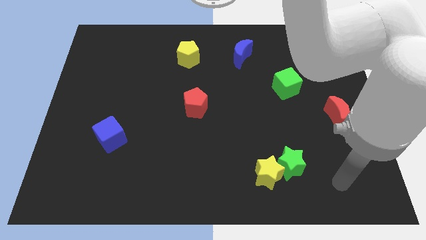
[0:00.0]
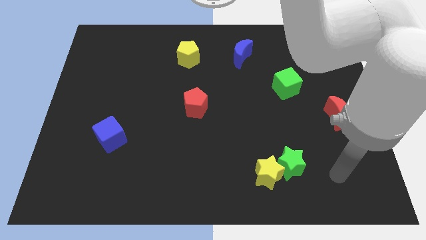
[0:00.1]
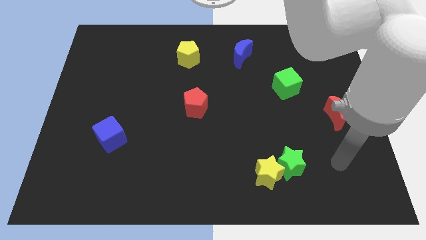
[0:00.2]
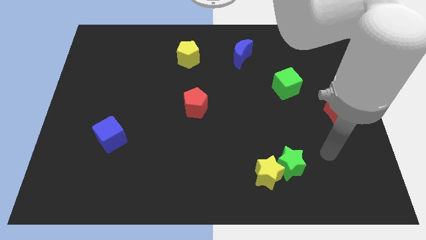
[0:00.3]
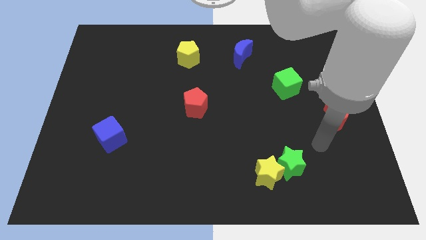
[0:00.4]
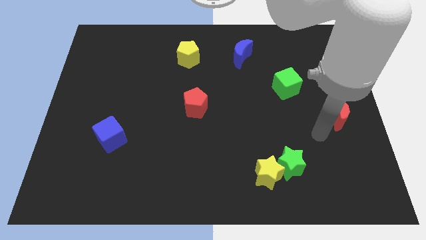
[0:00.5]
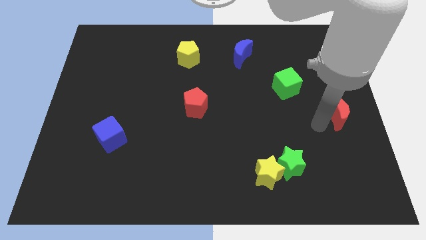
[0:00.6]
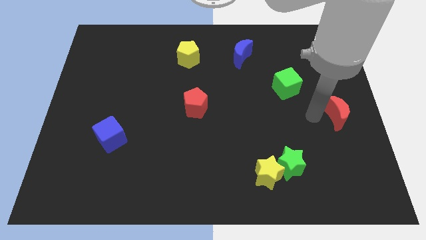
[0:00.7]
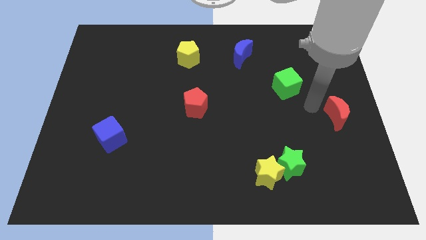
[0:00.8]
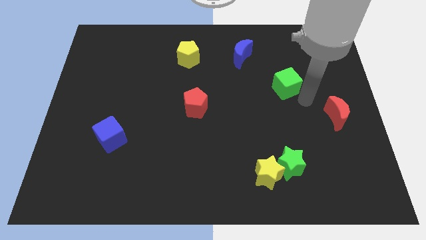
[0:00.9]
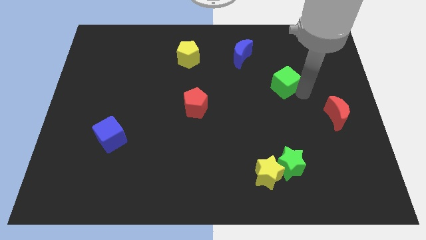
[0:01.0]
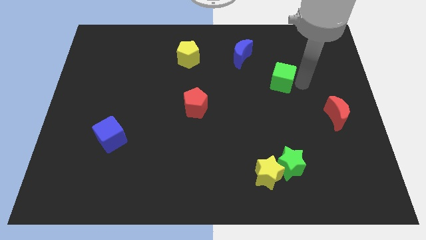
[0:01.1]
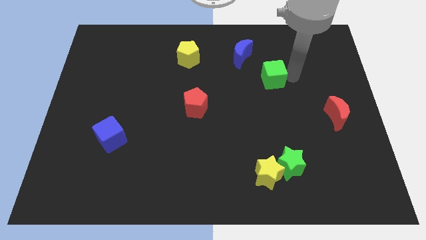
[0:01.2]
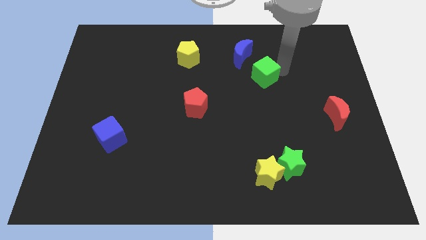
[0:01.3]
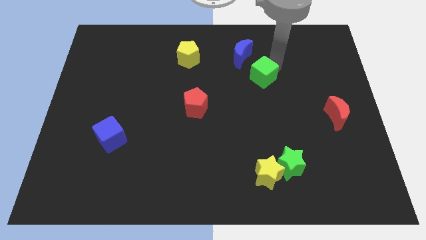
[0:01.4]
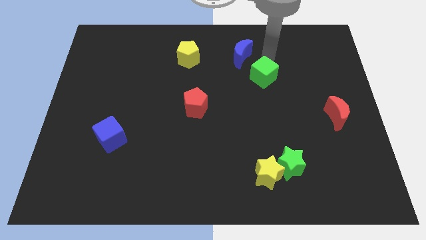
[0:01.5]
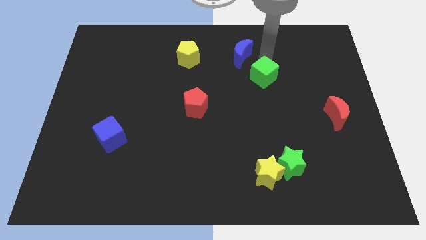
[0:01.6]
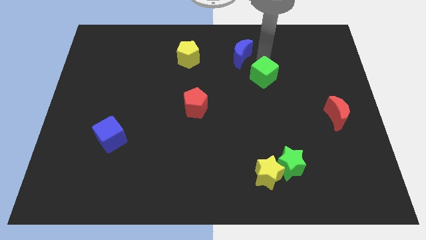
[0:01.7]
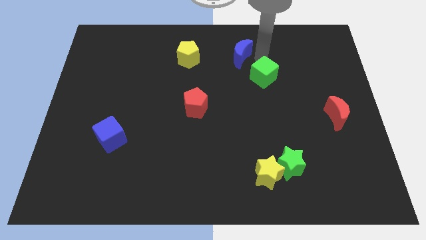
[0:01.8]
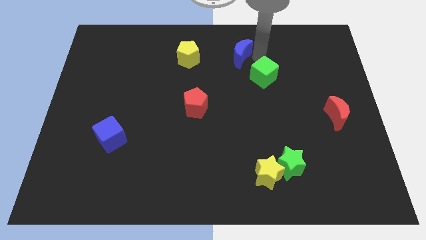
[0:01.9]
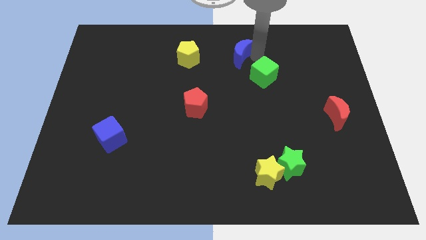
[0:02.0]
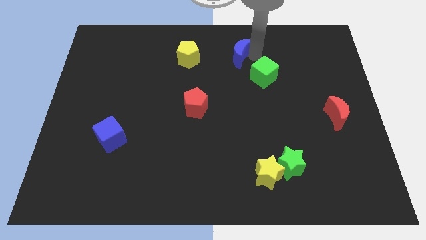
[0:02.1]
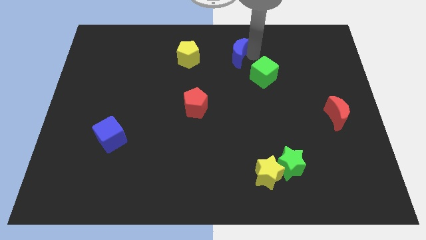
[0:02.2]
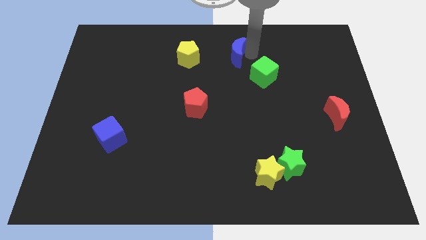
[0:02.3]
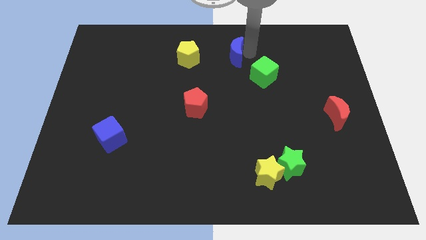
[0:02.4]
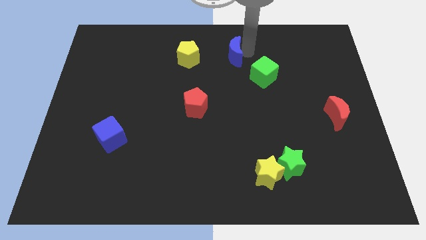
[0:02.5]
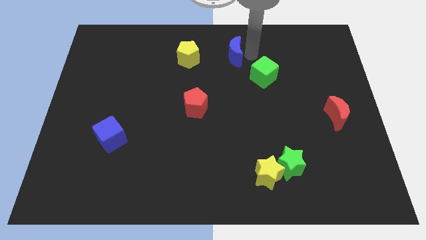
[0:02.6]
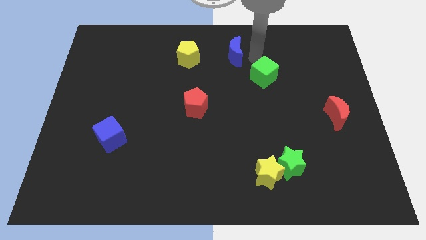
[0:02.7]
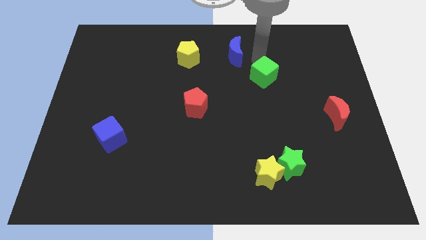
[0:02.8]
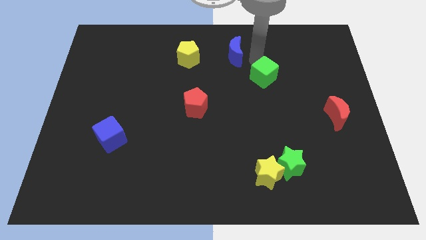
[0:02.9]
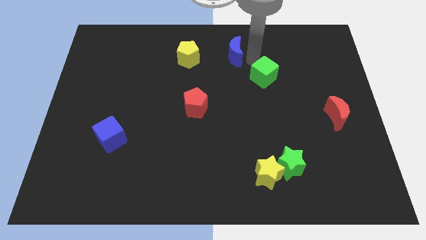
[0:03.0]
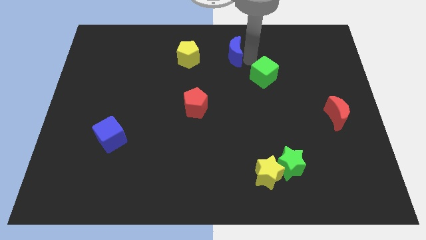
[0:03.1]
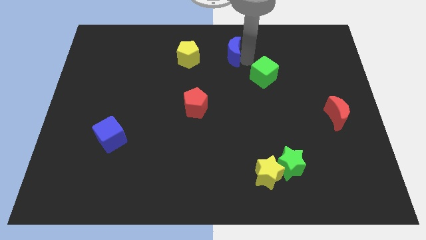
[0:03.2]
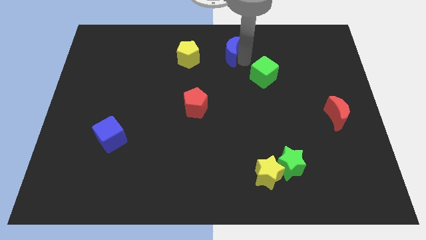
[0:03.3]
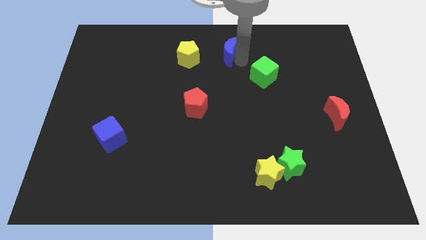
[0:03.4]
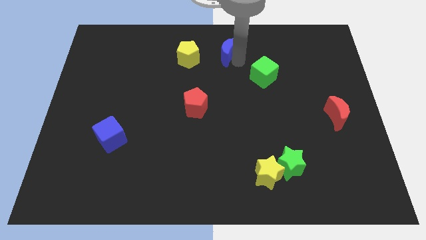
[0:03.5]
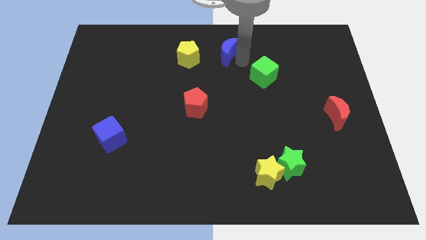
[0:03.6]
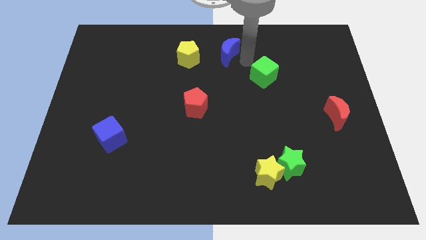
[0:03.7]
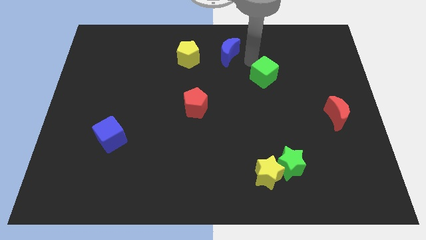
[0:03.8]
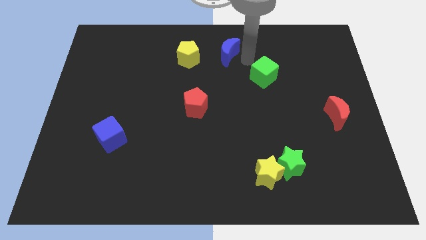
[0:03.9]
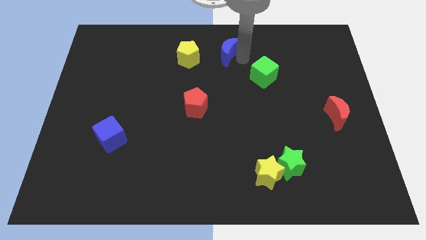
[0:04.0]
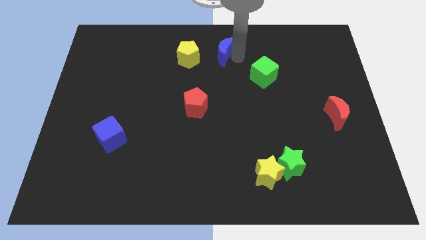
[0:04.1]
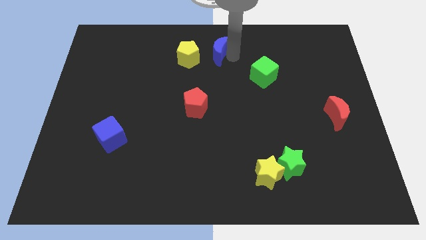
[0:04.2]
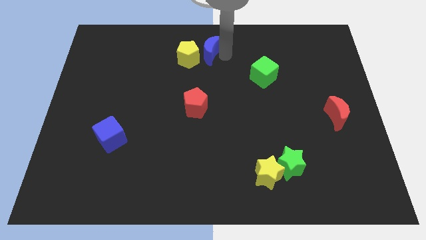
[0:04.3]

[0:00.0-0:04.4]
slide the blue moon a little bit to the left

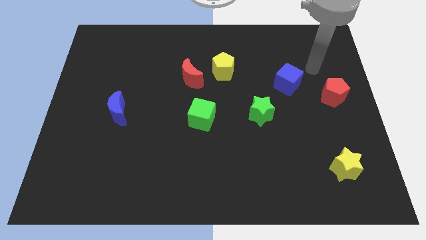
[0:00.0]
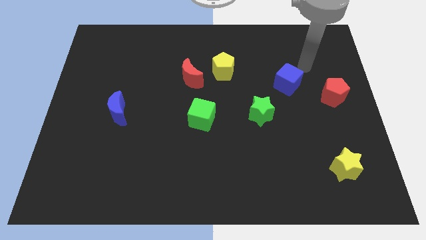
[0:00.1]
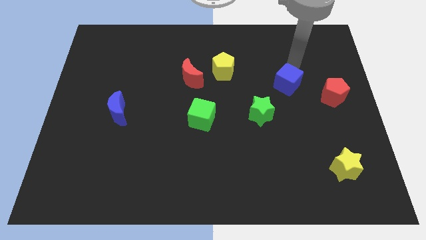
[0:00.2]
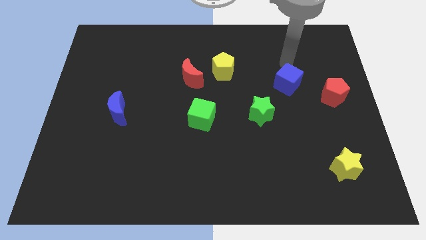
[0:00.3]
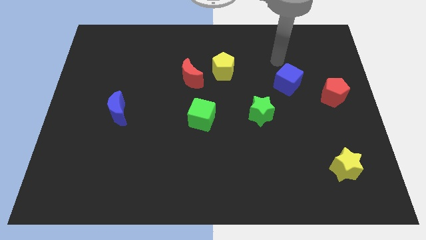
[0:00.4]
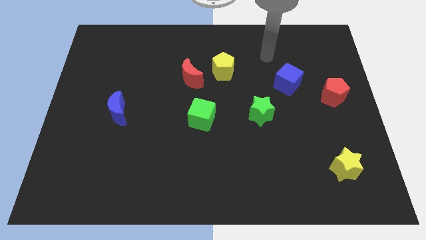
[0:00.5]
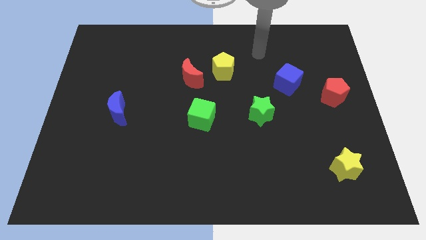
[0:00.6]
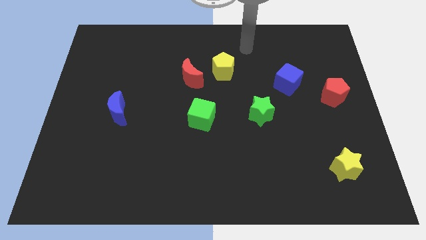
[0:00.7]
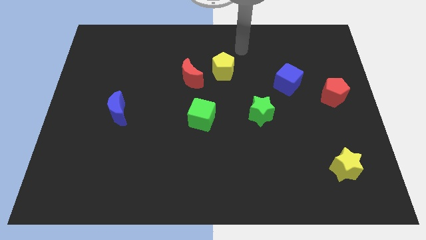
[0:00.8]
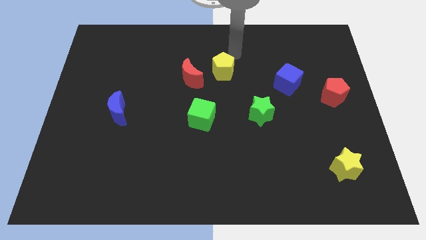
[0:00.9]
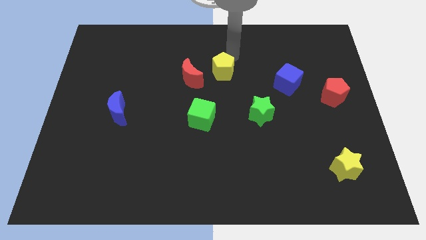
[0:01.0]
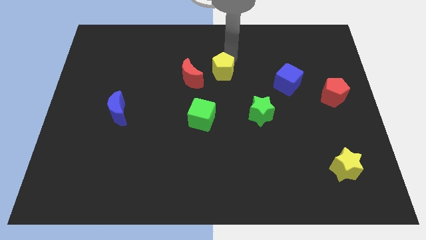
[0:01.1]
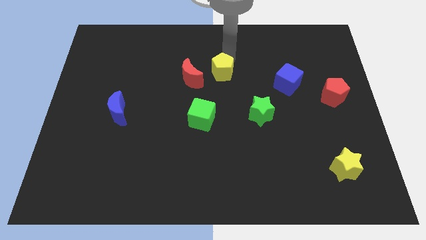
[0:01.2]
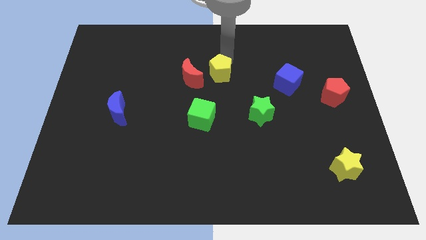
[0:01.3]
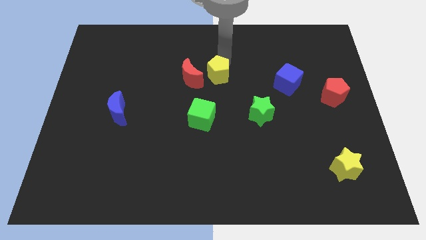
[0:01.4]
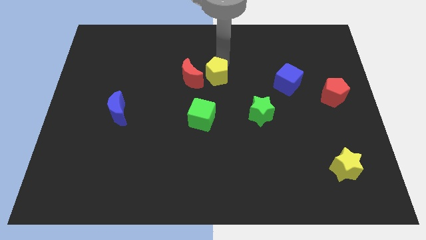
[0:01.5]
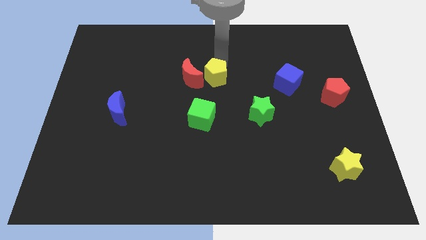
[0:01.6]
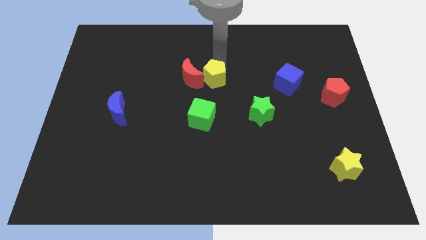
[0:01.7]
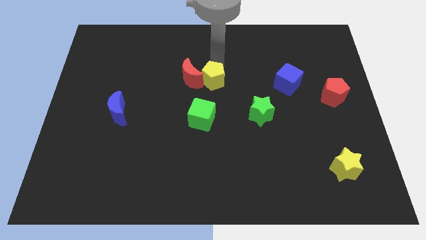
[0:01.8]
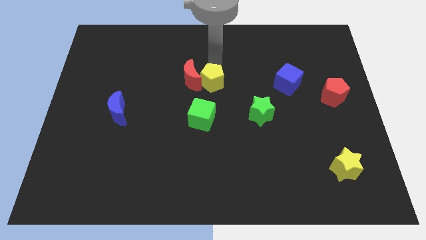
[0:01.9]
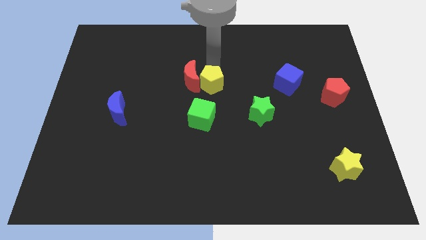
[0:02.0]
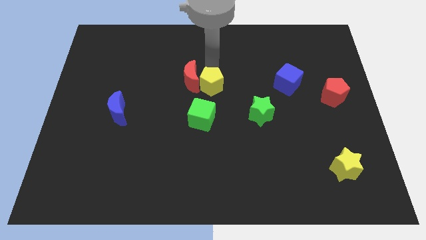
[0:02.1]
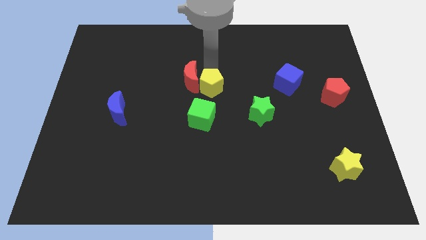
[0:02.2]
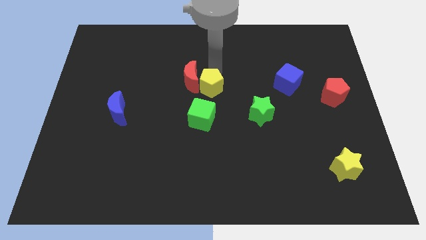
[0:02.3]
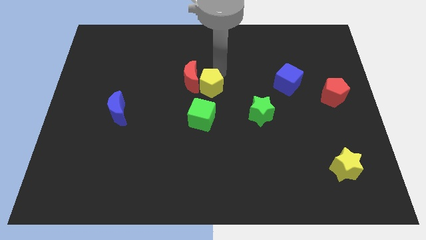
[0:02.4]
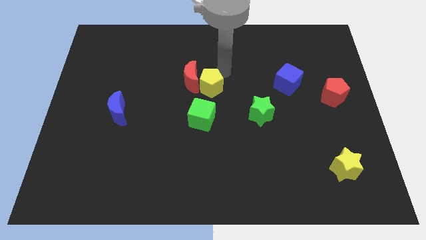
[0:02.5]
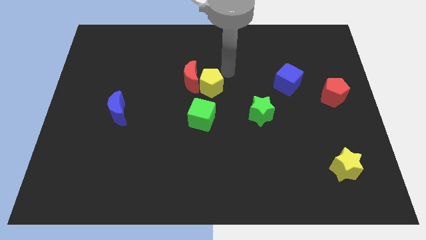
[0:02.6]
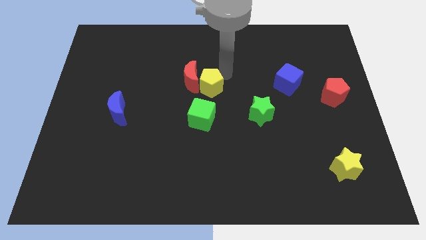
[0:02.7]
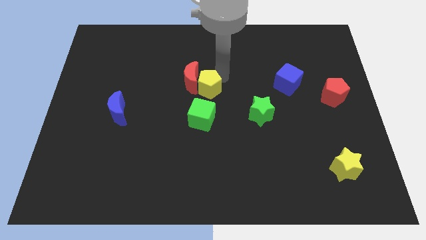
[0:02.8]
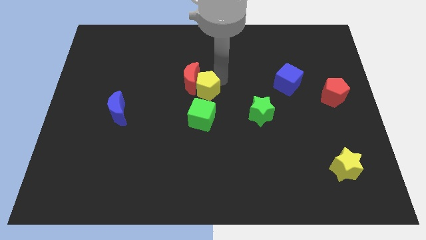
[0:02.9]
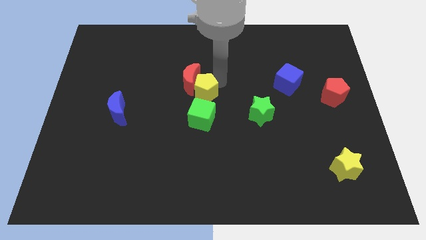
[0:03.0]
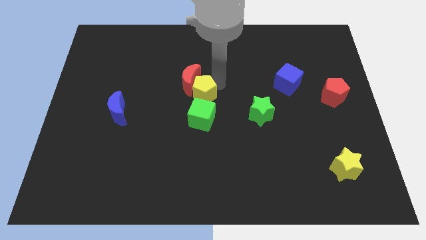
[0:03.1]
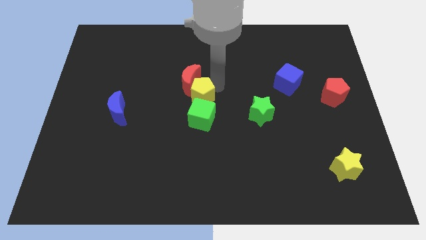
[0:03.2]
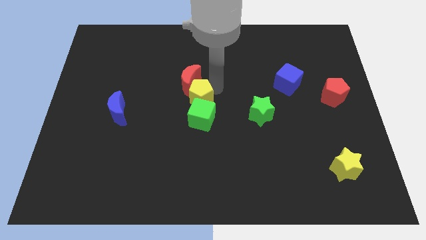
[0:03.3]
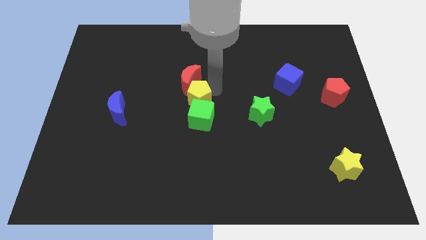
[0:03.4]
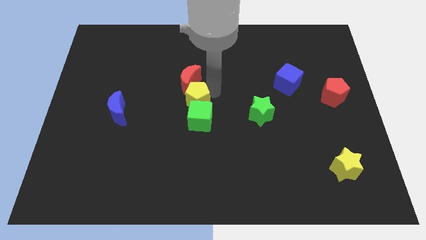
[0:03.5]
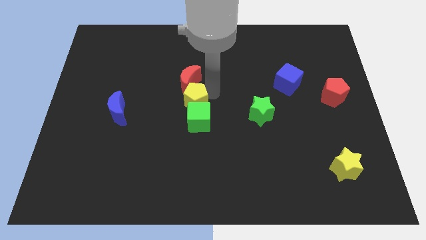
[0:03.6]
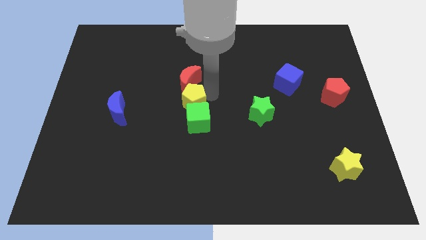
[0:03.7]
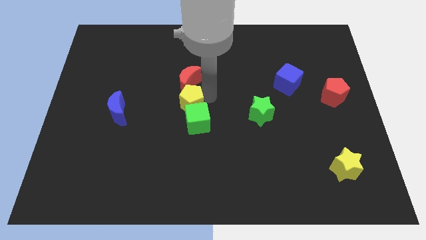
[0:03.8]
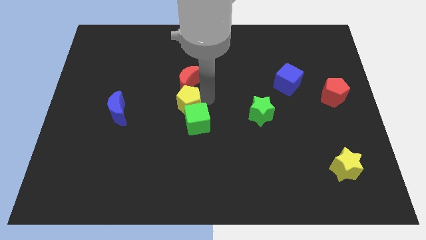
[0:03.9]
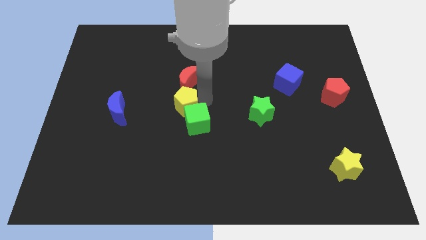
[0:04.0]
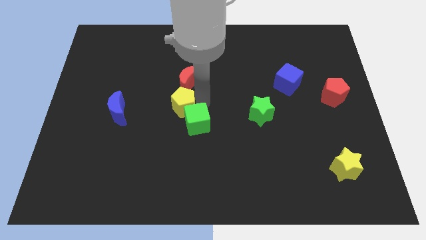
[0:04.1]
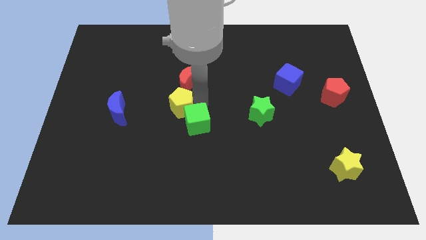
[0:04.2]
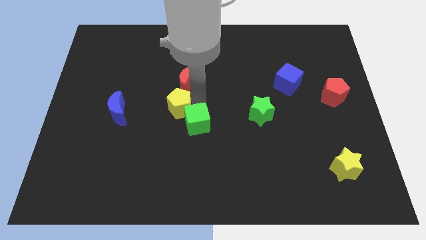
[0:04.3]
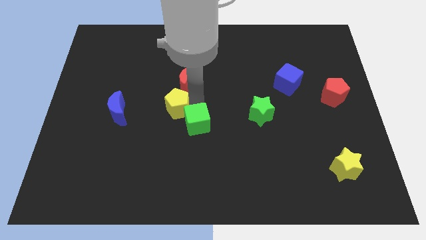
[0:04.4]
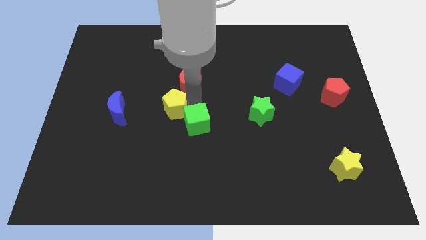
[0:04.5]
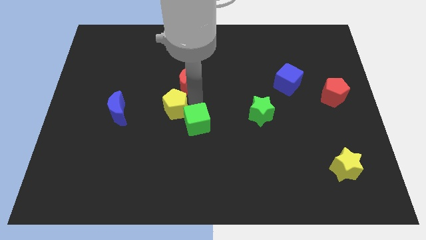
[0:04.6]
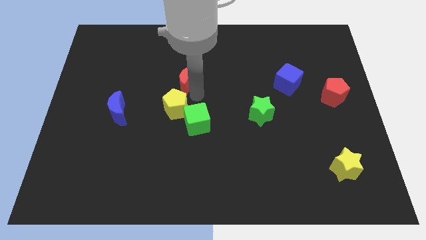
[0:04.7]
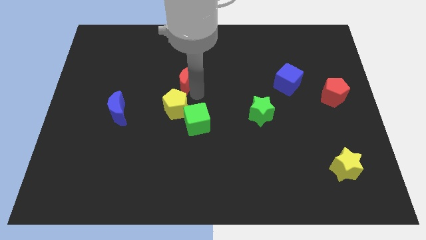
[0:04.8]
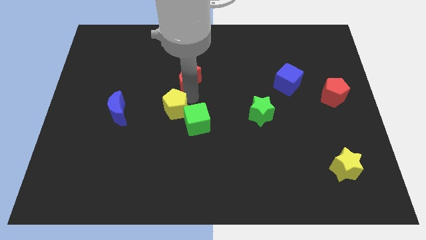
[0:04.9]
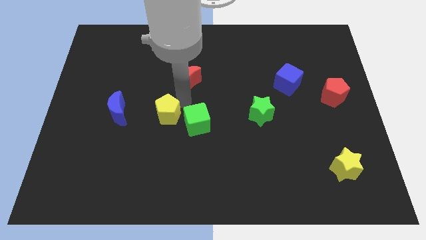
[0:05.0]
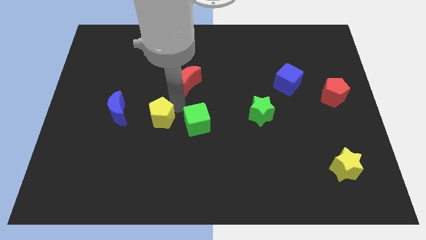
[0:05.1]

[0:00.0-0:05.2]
push the yellow pentagon downwards and left
